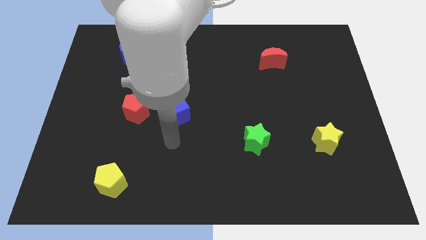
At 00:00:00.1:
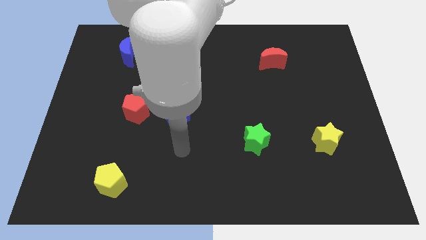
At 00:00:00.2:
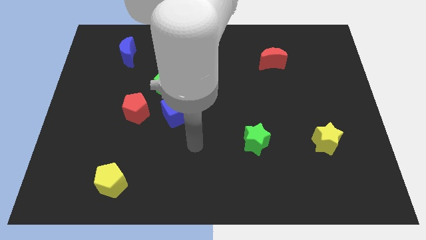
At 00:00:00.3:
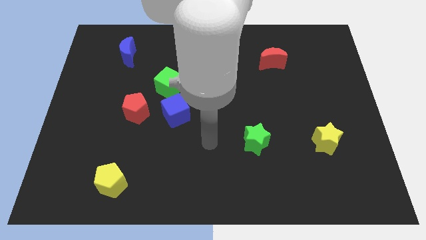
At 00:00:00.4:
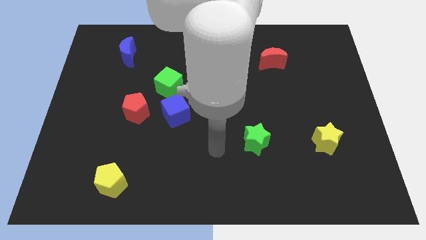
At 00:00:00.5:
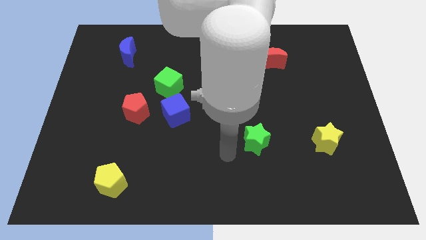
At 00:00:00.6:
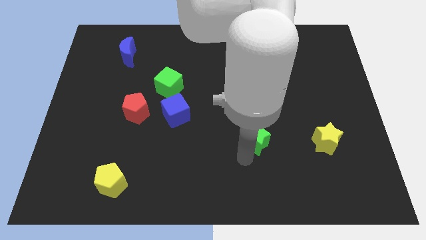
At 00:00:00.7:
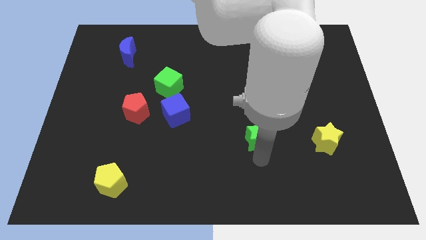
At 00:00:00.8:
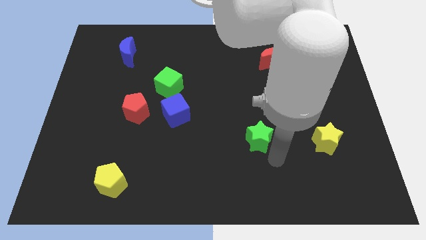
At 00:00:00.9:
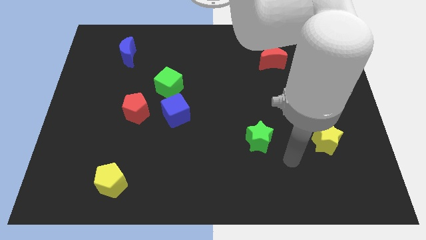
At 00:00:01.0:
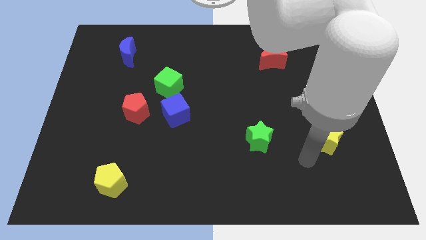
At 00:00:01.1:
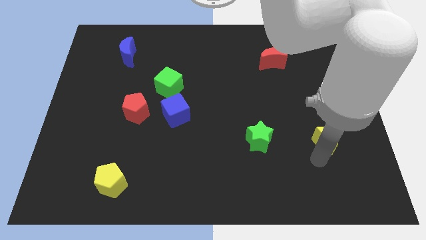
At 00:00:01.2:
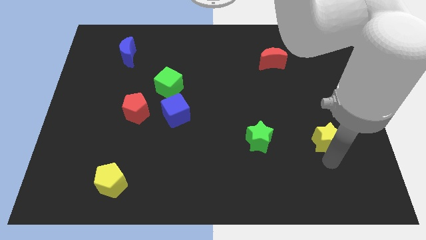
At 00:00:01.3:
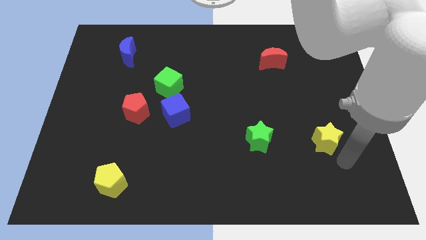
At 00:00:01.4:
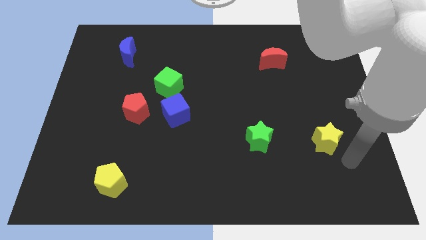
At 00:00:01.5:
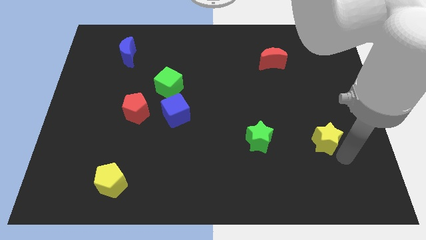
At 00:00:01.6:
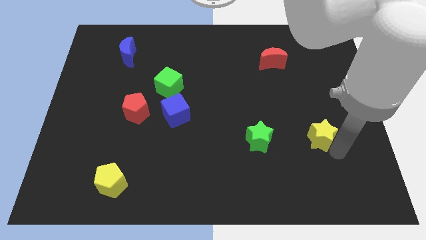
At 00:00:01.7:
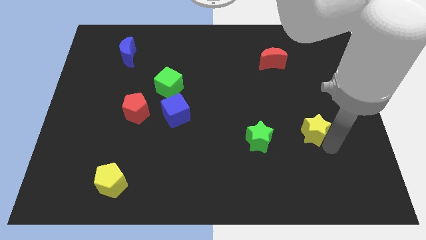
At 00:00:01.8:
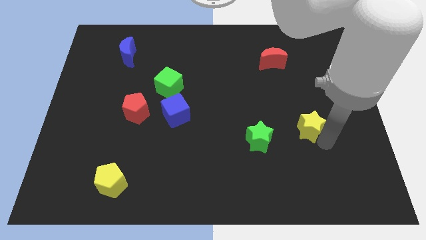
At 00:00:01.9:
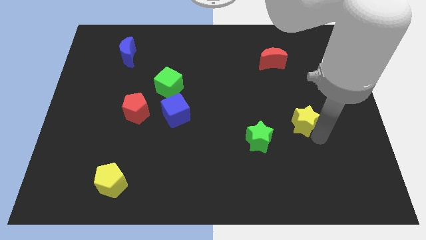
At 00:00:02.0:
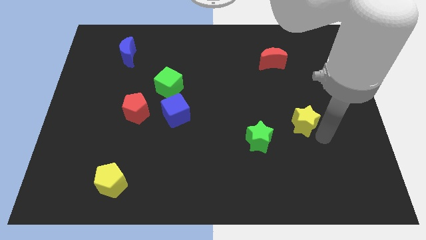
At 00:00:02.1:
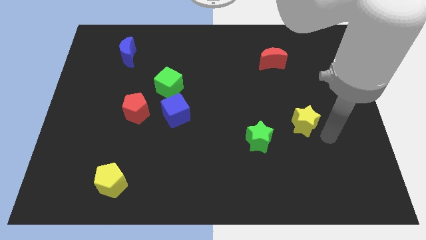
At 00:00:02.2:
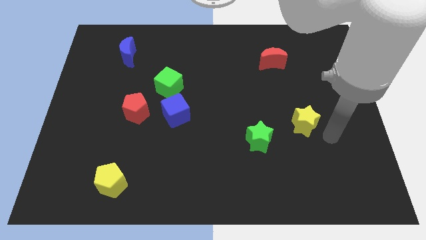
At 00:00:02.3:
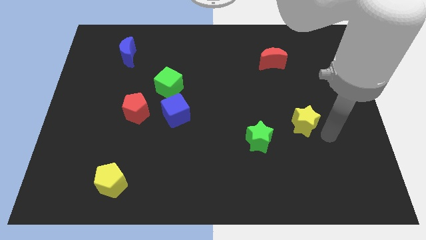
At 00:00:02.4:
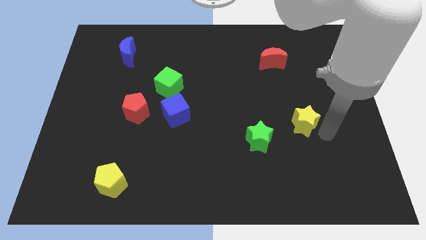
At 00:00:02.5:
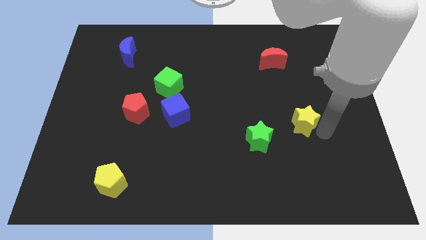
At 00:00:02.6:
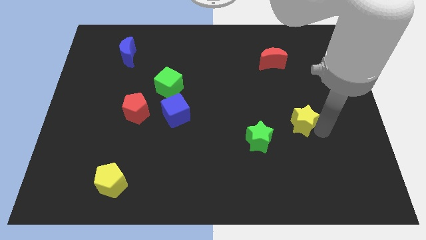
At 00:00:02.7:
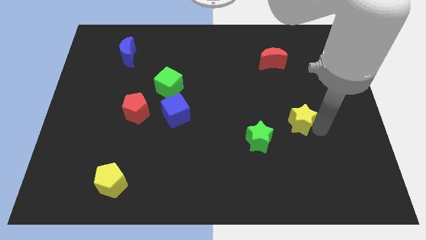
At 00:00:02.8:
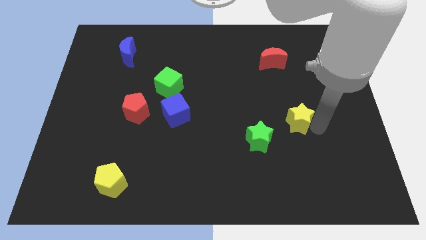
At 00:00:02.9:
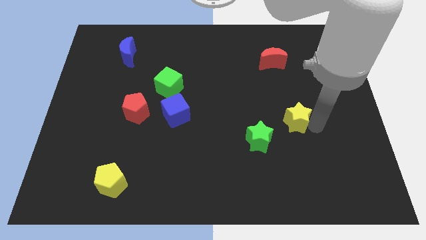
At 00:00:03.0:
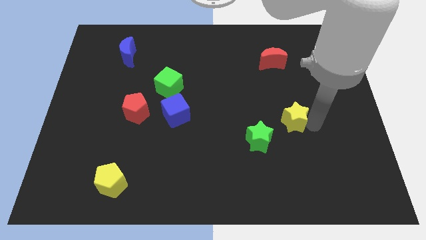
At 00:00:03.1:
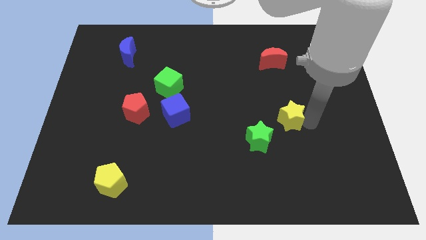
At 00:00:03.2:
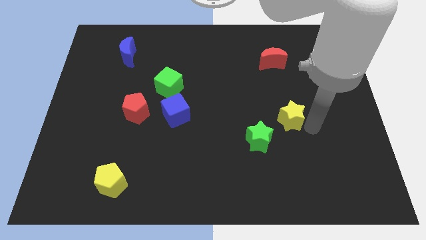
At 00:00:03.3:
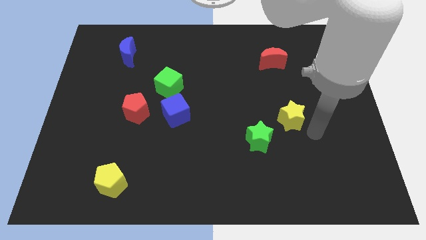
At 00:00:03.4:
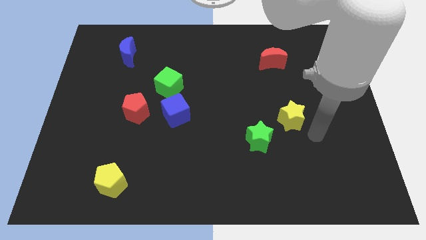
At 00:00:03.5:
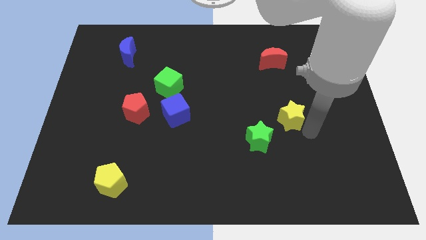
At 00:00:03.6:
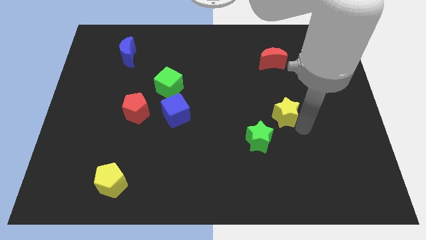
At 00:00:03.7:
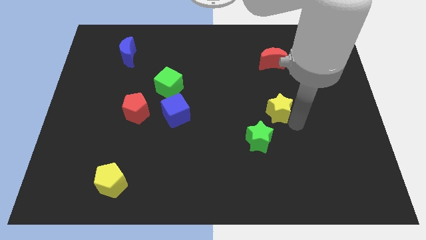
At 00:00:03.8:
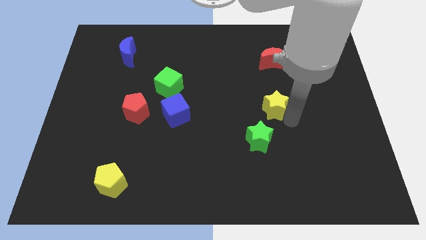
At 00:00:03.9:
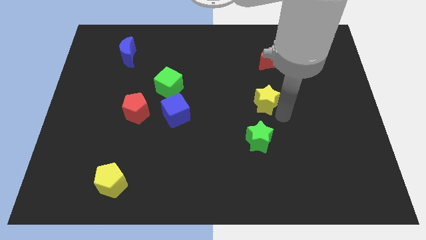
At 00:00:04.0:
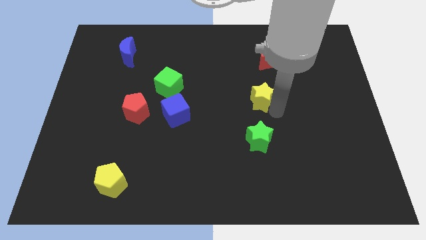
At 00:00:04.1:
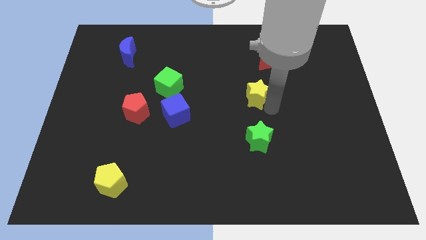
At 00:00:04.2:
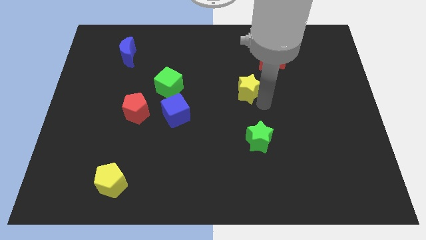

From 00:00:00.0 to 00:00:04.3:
slide the yellow star diagonally up and to the left

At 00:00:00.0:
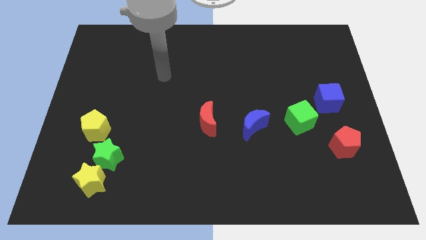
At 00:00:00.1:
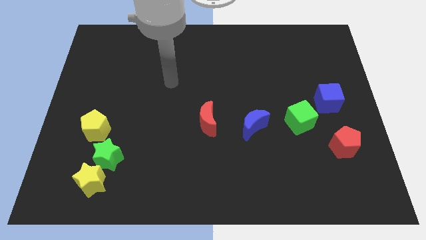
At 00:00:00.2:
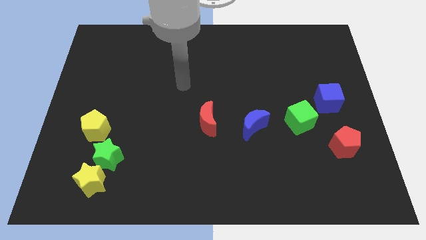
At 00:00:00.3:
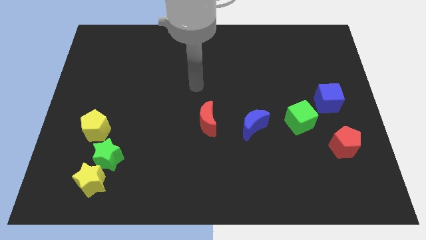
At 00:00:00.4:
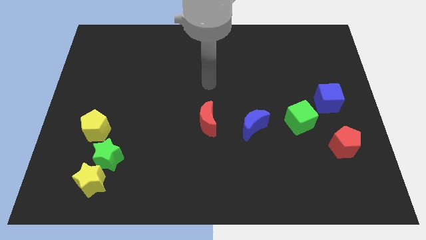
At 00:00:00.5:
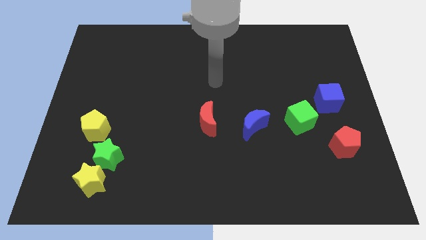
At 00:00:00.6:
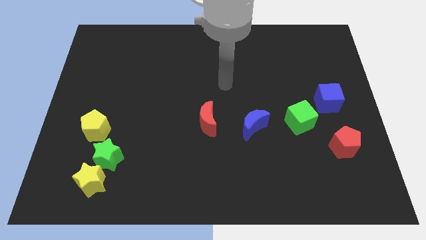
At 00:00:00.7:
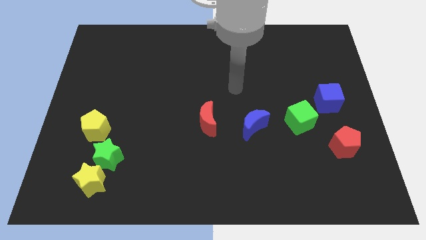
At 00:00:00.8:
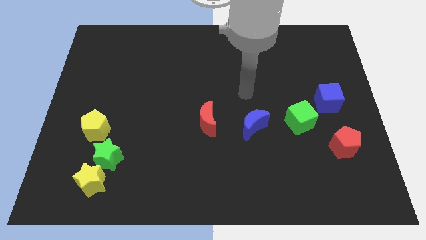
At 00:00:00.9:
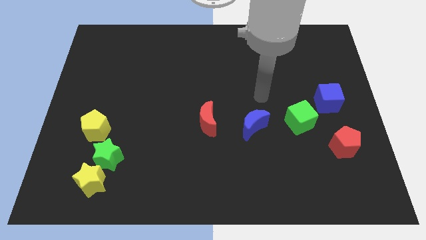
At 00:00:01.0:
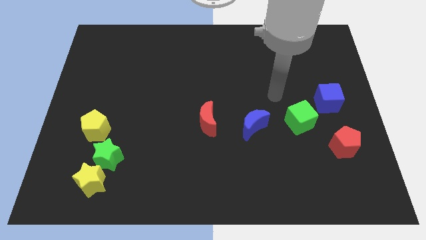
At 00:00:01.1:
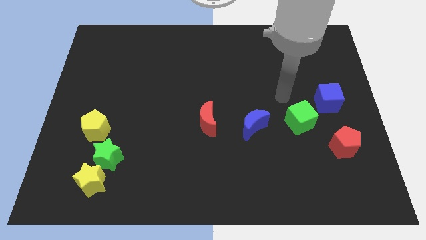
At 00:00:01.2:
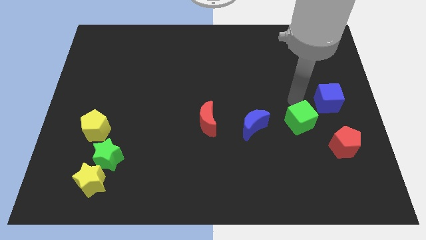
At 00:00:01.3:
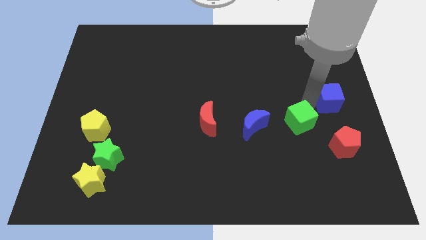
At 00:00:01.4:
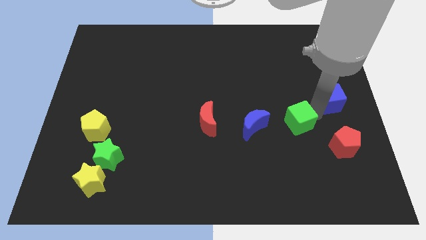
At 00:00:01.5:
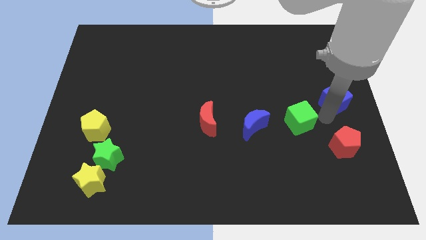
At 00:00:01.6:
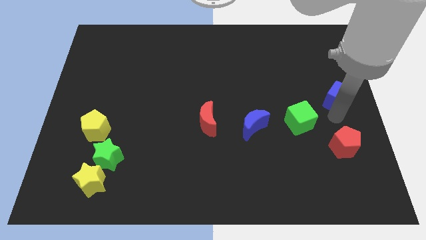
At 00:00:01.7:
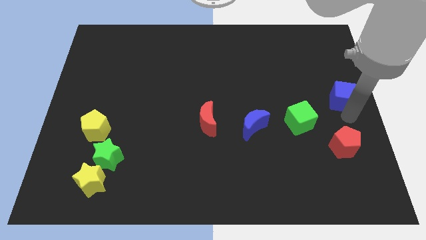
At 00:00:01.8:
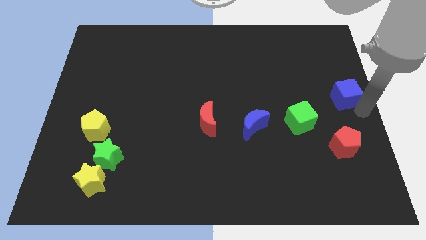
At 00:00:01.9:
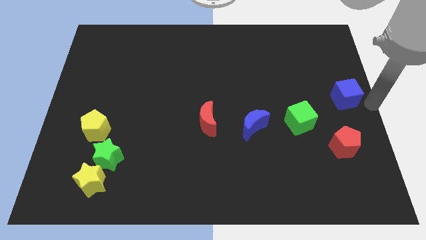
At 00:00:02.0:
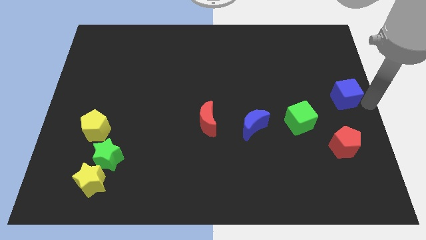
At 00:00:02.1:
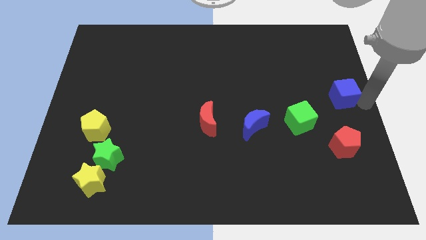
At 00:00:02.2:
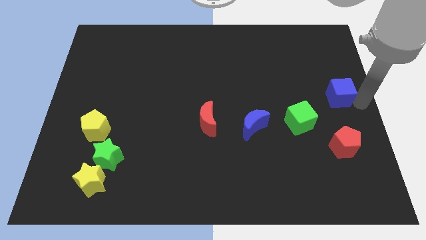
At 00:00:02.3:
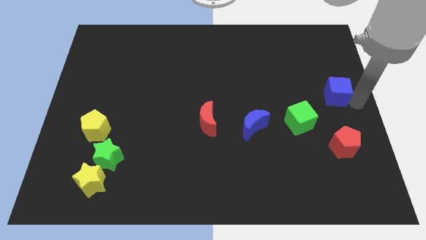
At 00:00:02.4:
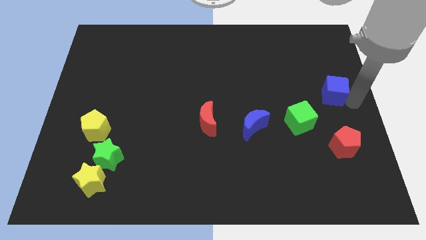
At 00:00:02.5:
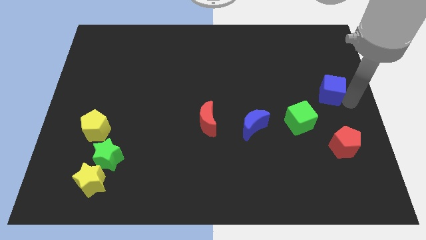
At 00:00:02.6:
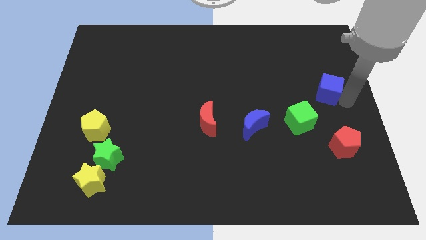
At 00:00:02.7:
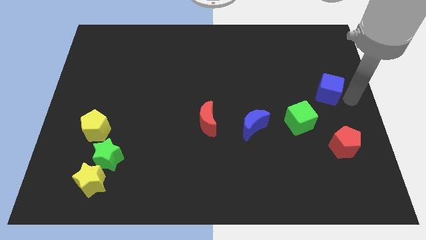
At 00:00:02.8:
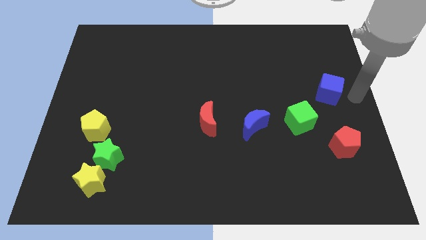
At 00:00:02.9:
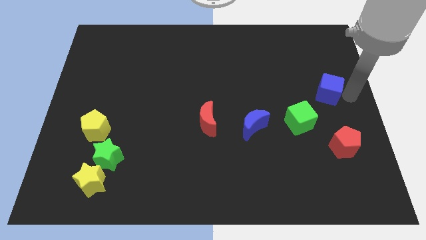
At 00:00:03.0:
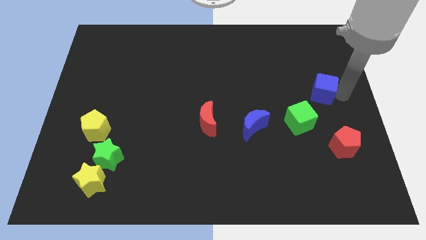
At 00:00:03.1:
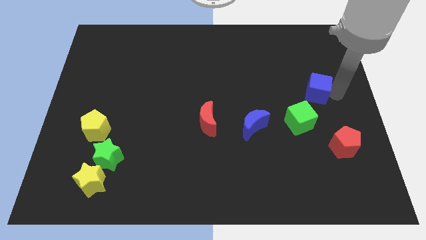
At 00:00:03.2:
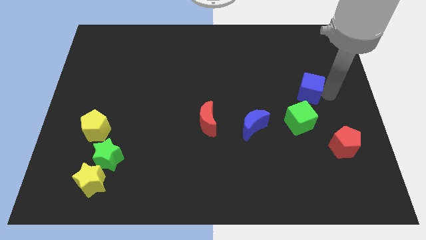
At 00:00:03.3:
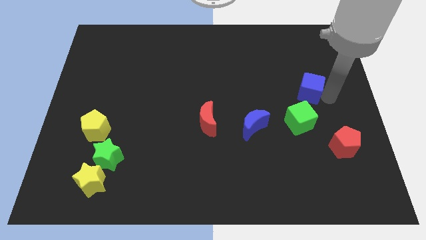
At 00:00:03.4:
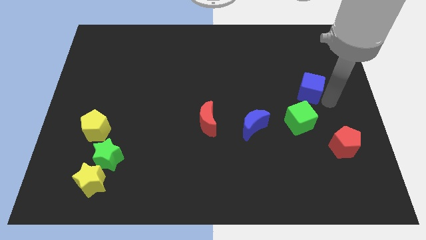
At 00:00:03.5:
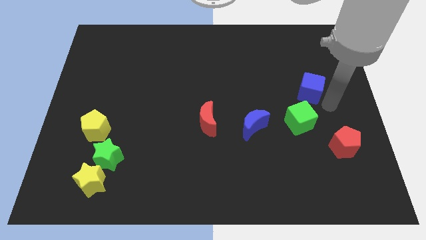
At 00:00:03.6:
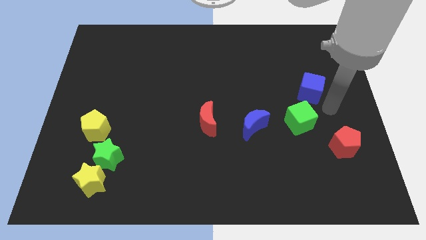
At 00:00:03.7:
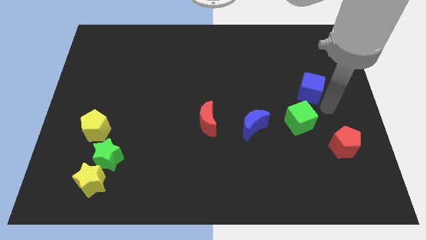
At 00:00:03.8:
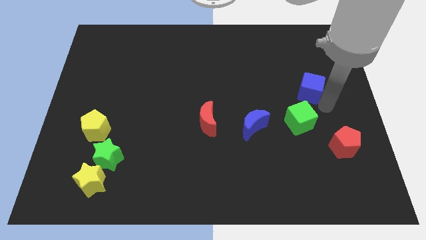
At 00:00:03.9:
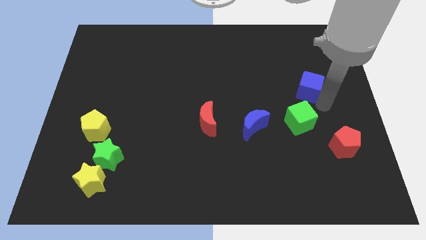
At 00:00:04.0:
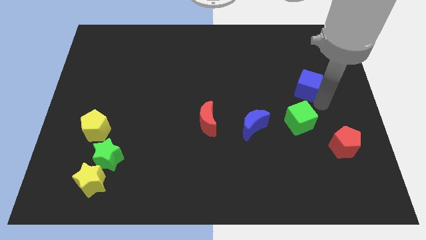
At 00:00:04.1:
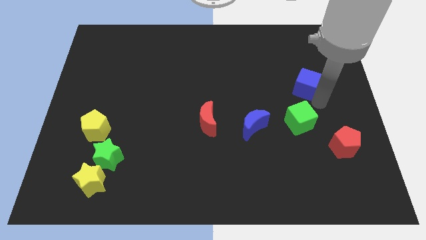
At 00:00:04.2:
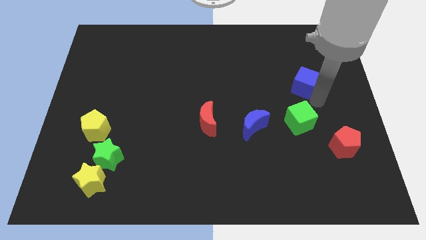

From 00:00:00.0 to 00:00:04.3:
push the blue cube up and left diagonally a little bit
